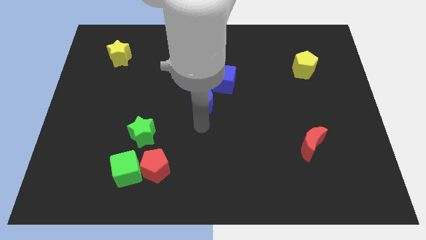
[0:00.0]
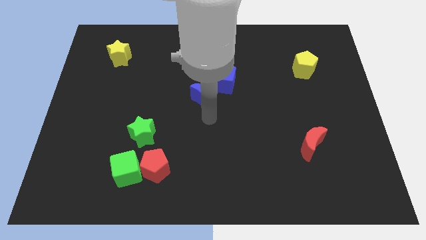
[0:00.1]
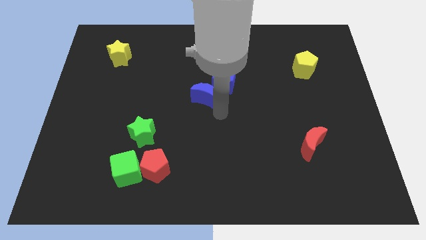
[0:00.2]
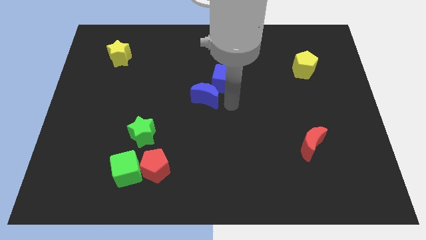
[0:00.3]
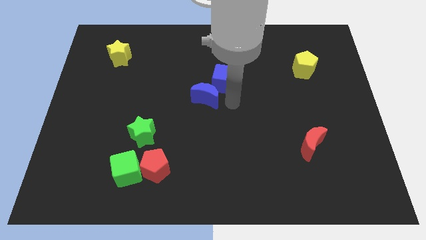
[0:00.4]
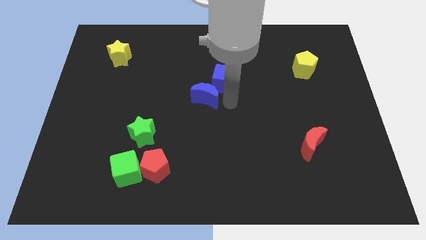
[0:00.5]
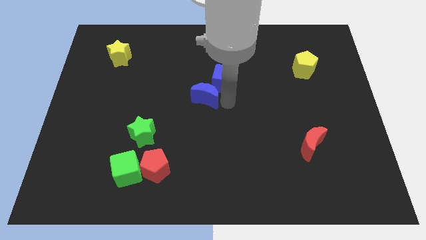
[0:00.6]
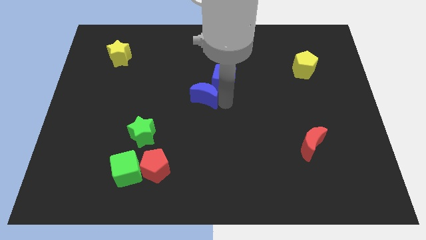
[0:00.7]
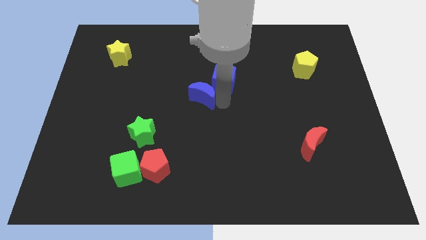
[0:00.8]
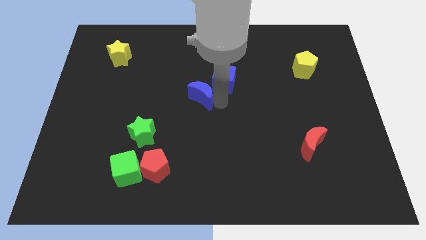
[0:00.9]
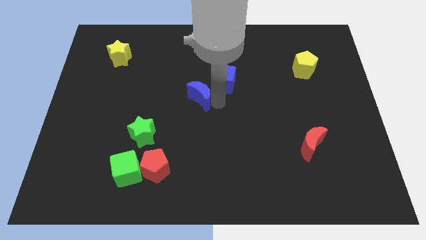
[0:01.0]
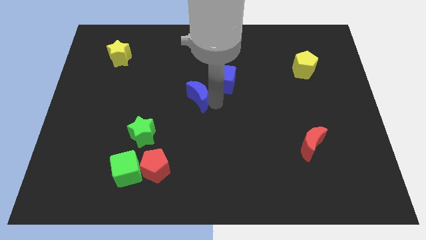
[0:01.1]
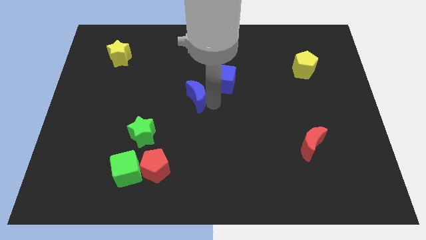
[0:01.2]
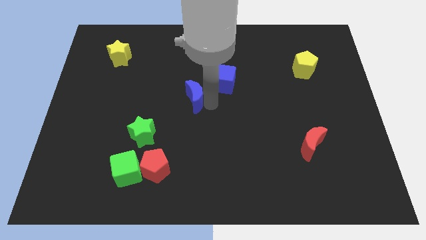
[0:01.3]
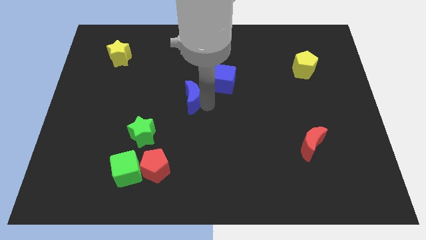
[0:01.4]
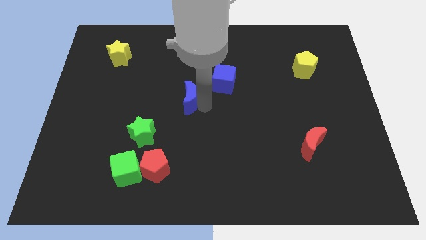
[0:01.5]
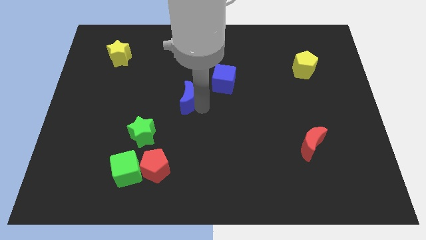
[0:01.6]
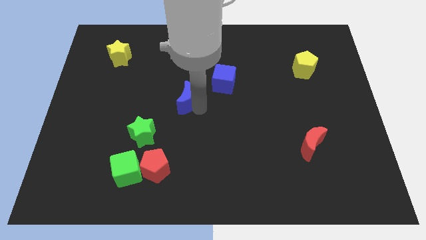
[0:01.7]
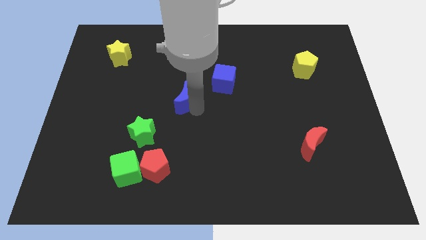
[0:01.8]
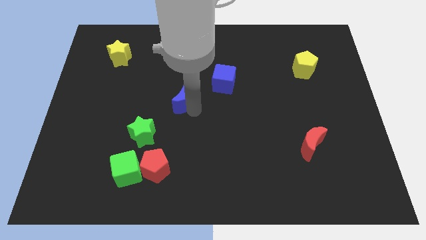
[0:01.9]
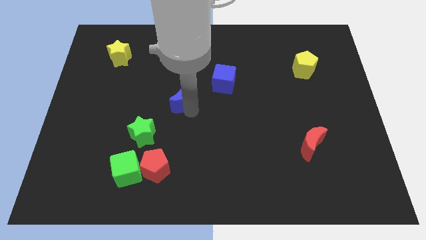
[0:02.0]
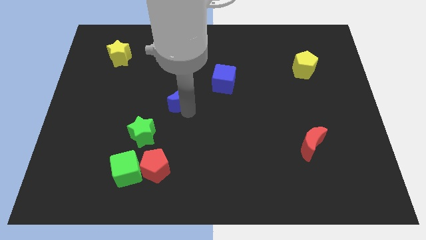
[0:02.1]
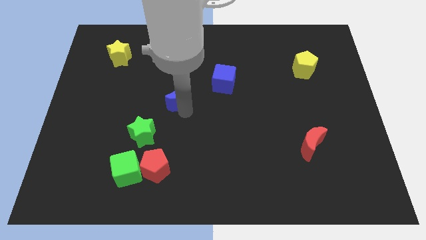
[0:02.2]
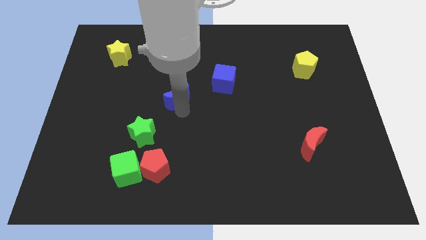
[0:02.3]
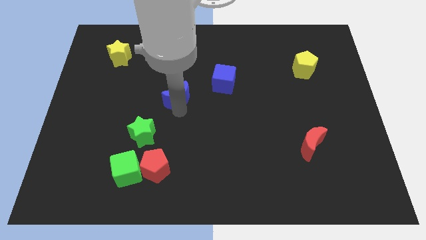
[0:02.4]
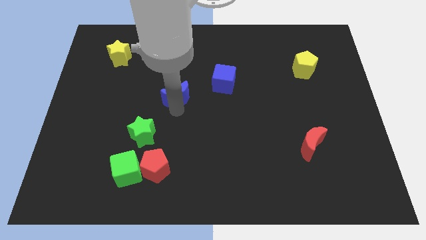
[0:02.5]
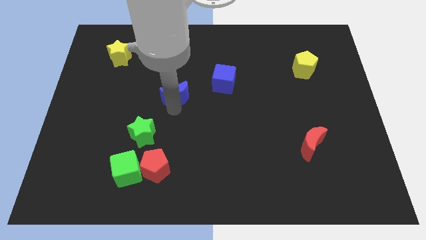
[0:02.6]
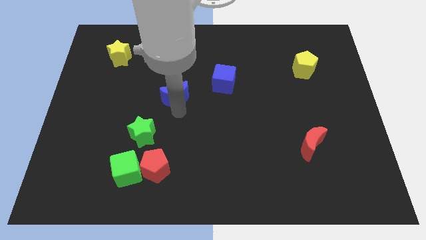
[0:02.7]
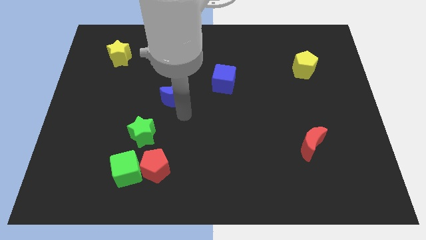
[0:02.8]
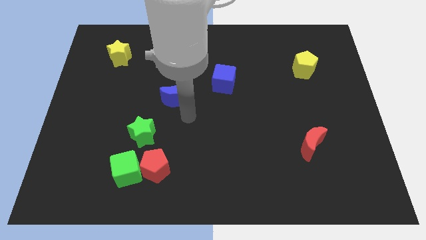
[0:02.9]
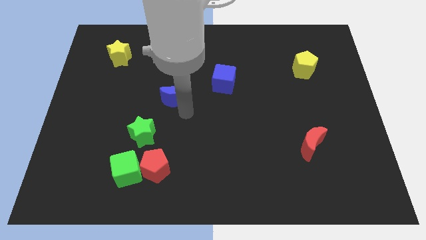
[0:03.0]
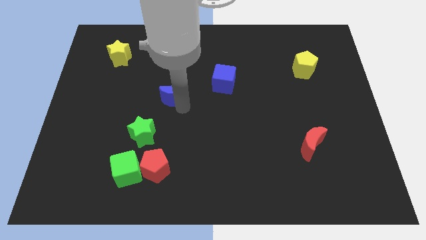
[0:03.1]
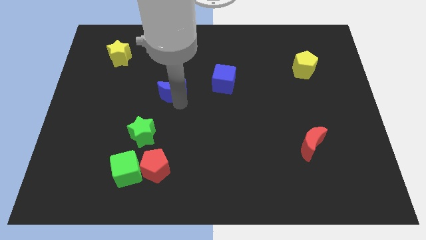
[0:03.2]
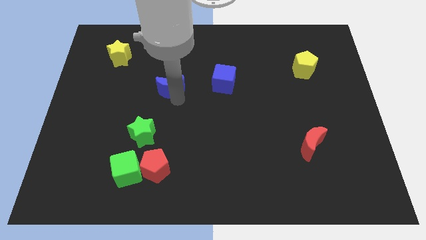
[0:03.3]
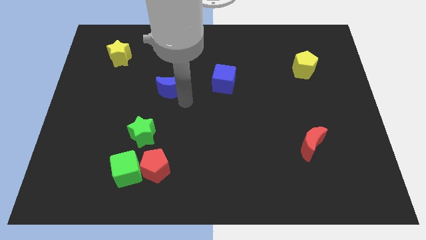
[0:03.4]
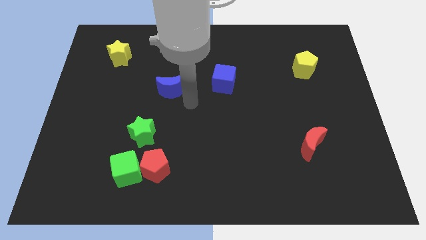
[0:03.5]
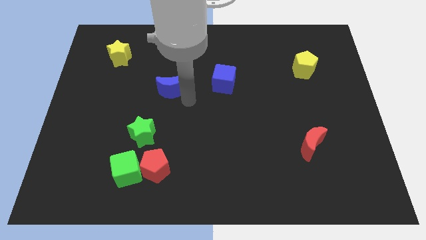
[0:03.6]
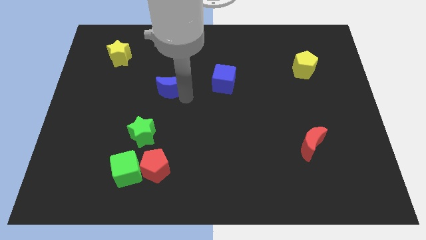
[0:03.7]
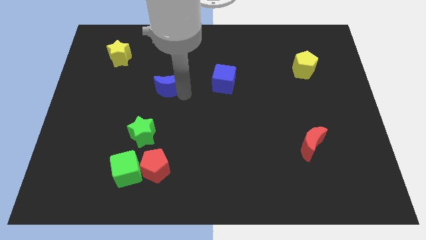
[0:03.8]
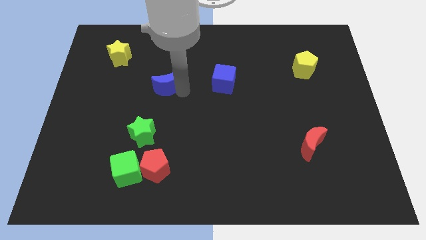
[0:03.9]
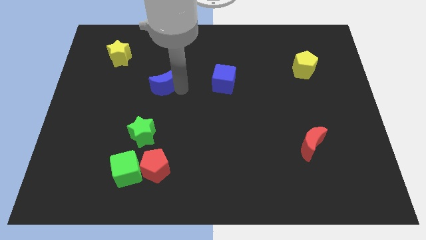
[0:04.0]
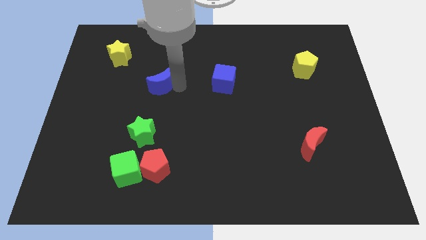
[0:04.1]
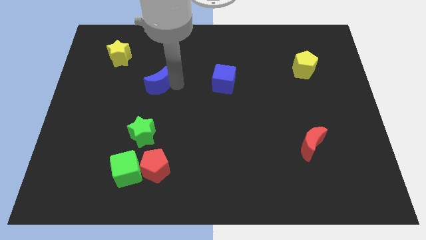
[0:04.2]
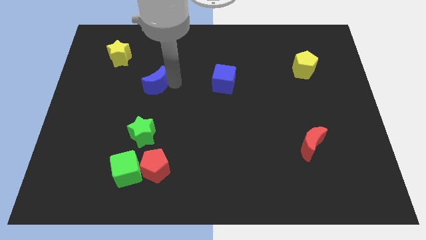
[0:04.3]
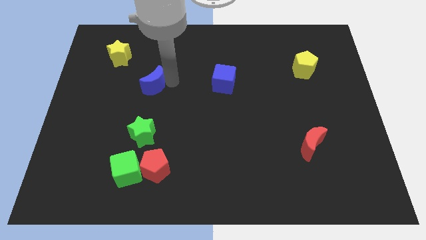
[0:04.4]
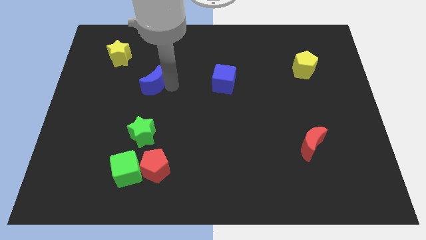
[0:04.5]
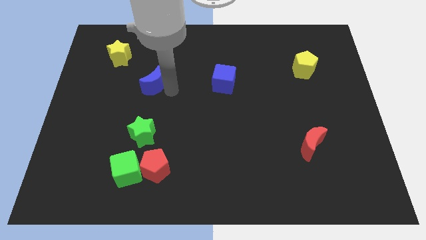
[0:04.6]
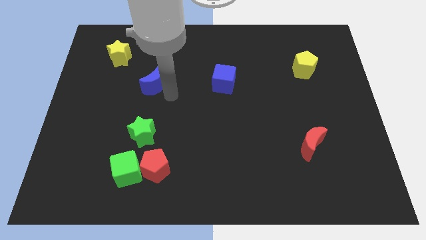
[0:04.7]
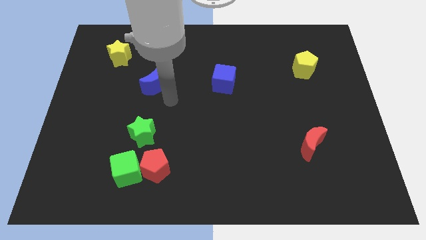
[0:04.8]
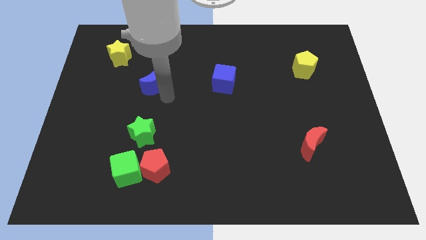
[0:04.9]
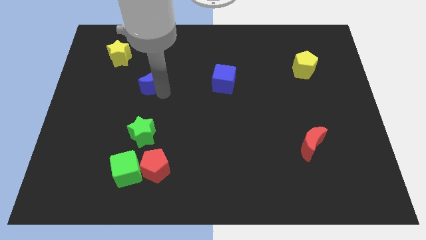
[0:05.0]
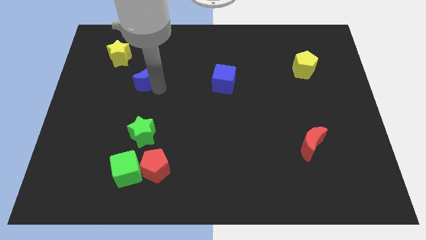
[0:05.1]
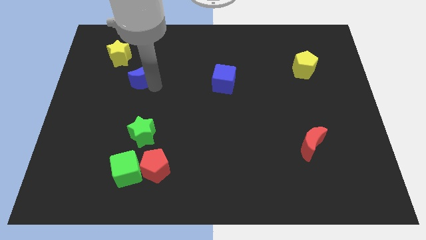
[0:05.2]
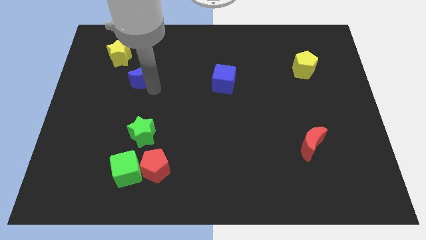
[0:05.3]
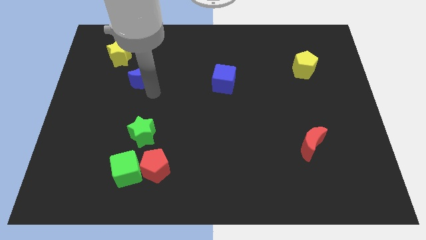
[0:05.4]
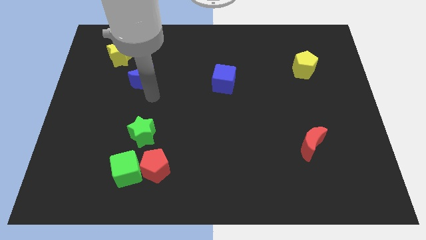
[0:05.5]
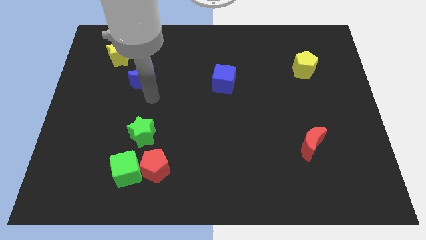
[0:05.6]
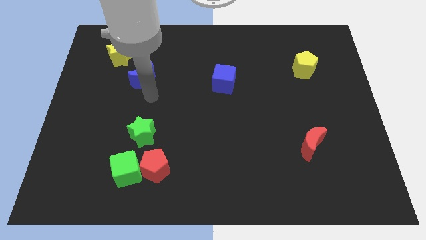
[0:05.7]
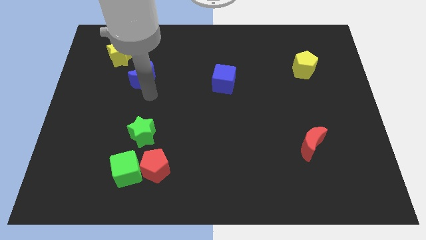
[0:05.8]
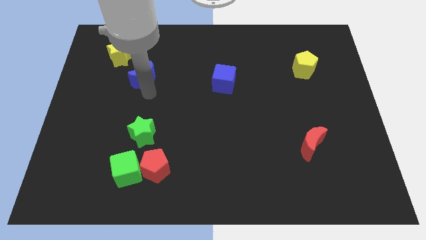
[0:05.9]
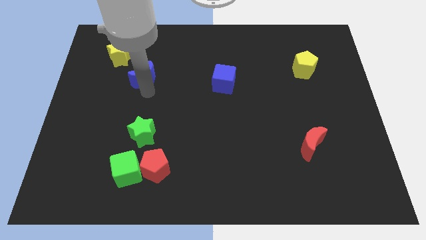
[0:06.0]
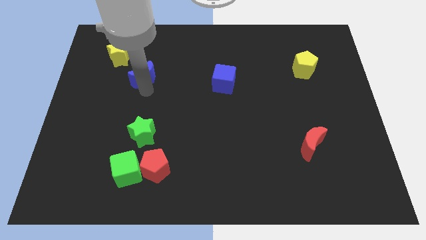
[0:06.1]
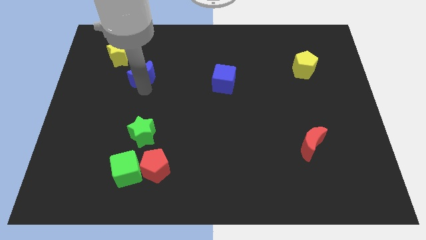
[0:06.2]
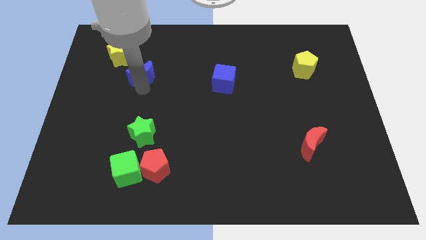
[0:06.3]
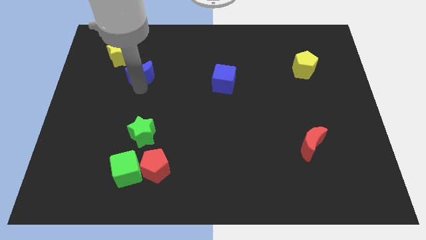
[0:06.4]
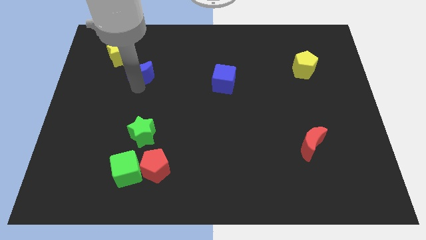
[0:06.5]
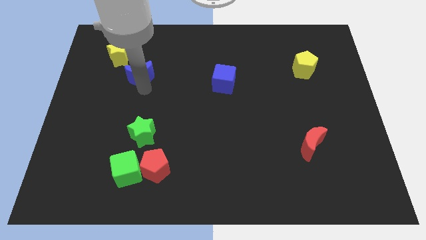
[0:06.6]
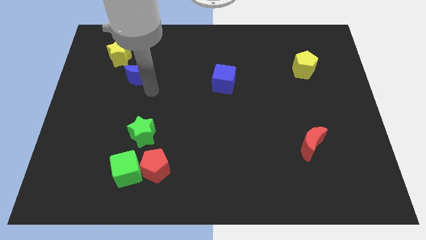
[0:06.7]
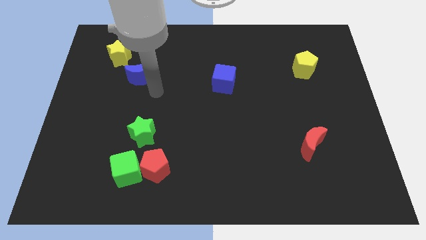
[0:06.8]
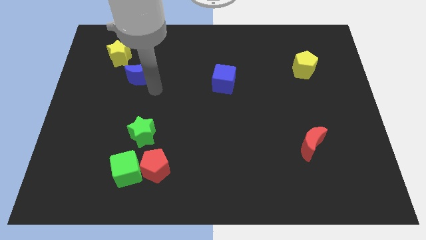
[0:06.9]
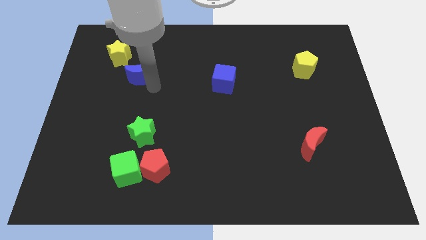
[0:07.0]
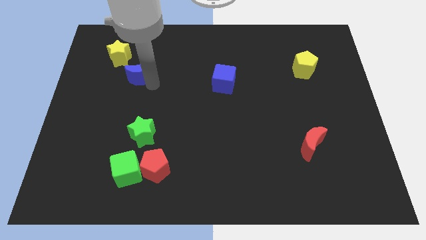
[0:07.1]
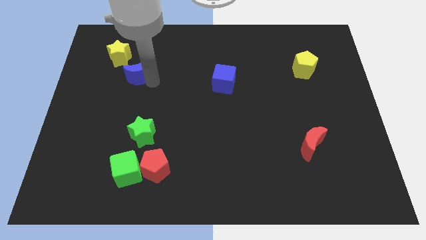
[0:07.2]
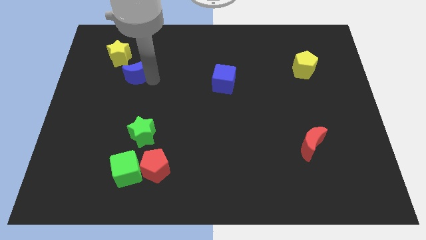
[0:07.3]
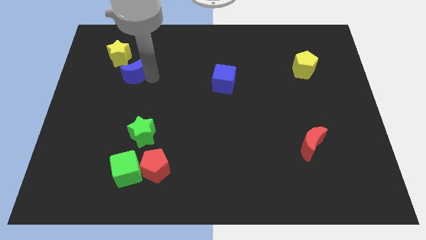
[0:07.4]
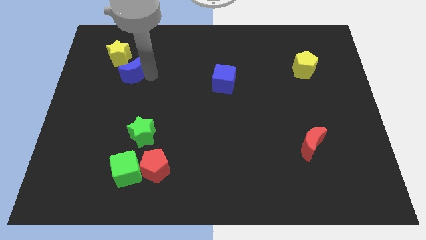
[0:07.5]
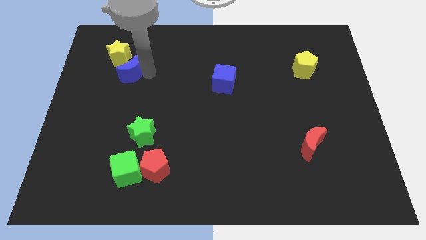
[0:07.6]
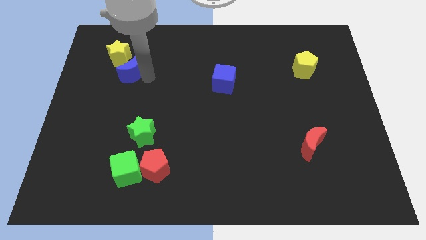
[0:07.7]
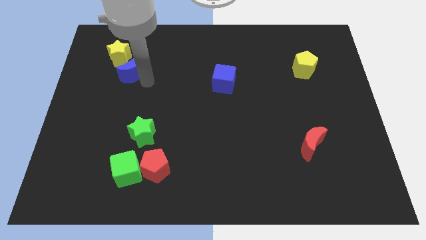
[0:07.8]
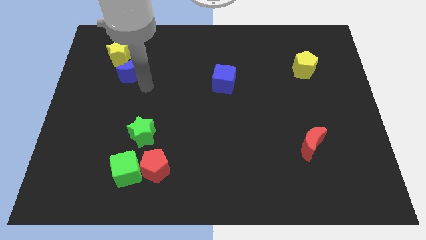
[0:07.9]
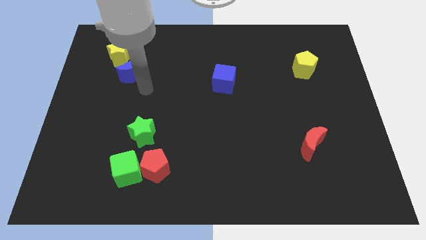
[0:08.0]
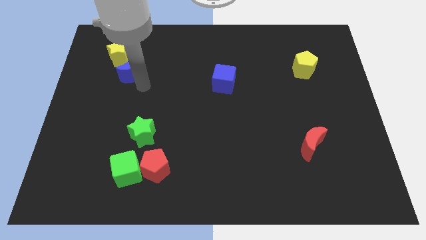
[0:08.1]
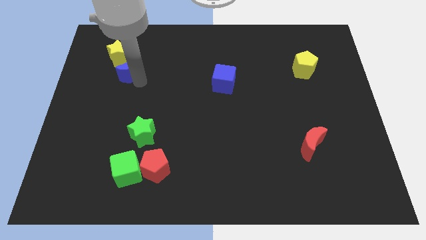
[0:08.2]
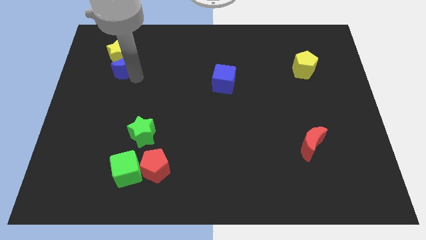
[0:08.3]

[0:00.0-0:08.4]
move the blue moon close to the yellow star
